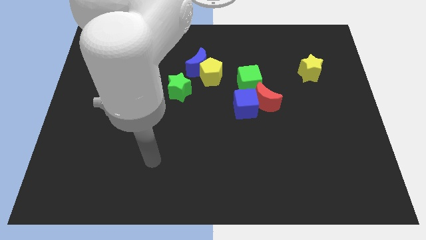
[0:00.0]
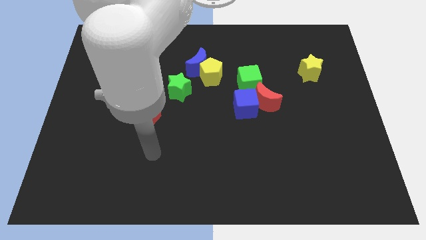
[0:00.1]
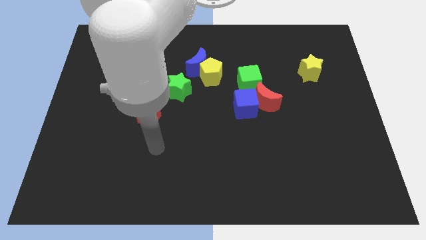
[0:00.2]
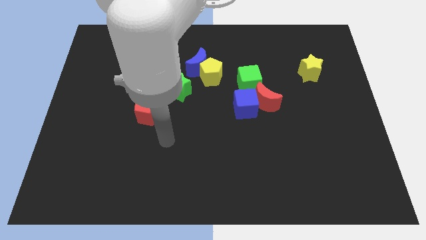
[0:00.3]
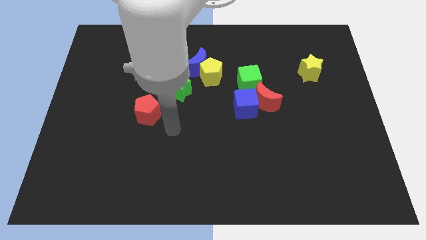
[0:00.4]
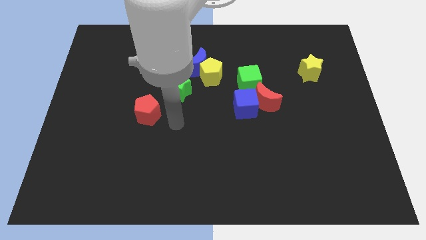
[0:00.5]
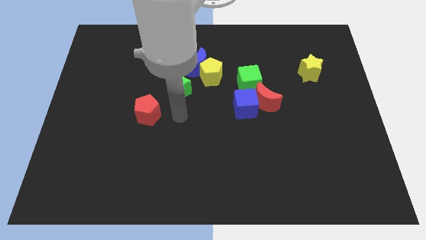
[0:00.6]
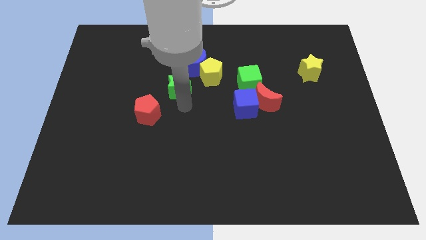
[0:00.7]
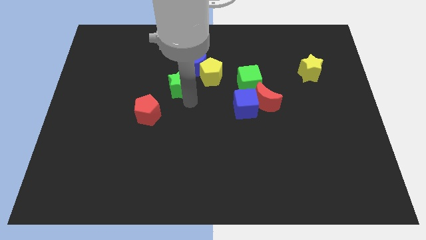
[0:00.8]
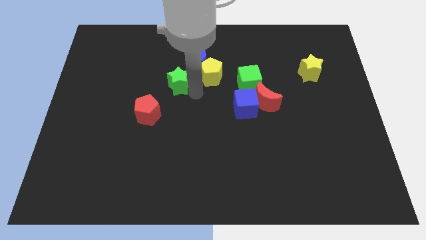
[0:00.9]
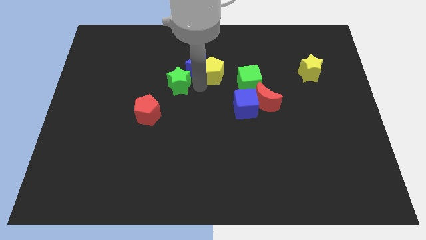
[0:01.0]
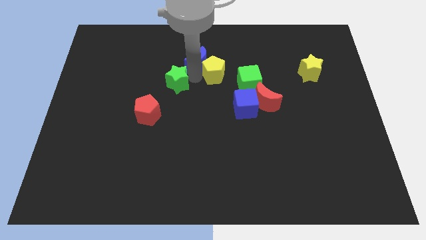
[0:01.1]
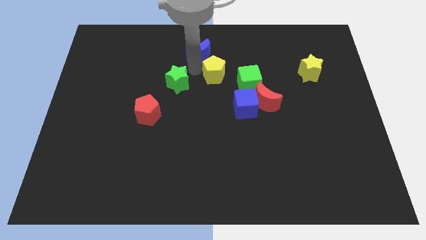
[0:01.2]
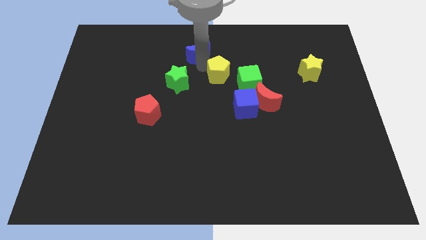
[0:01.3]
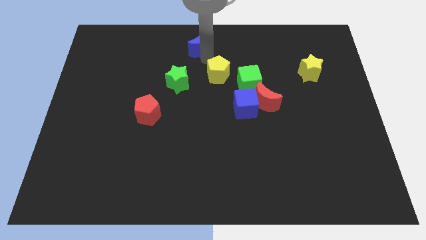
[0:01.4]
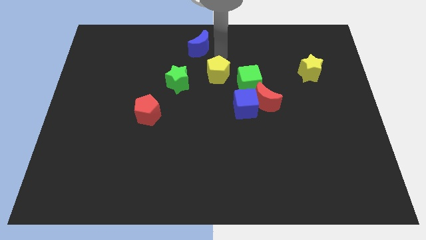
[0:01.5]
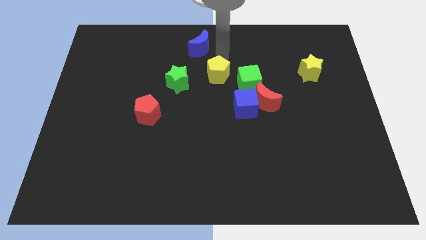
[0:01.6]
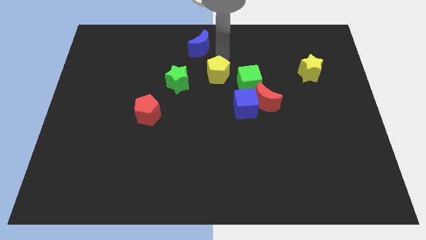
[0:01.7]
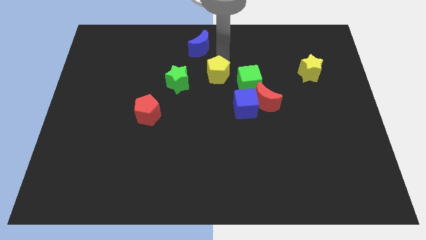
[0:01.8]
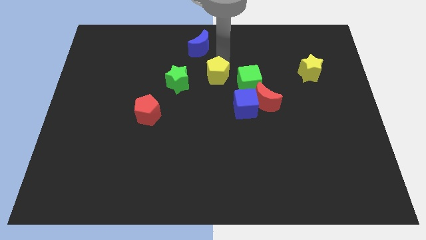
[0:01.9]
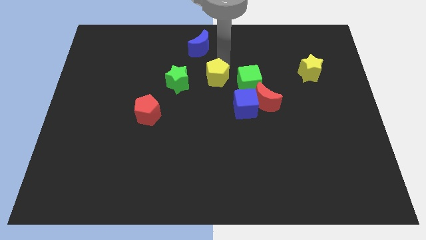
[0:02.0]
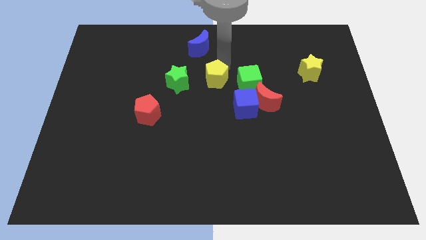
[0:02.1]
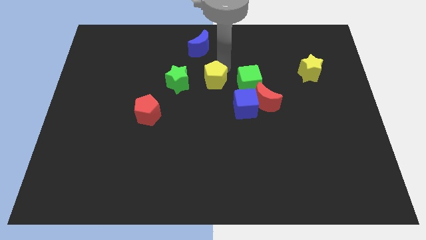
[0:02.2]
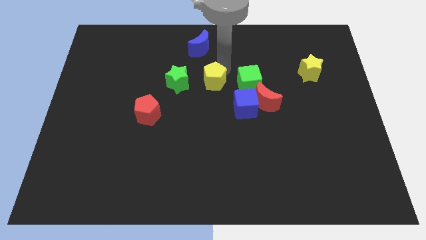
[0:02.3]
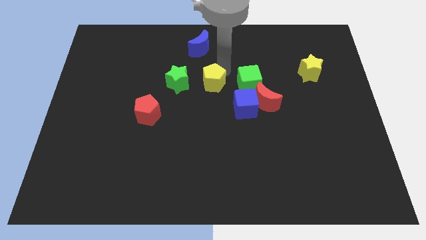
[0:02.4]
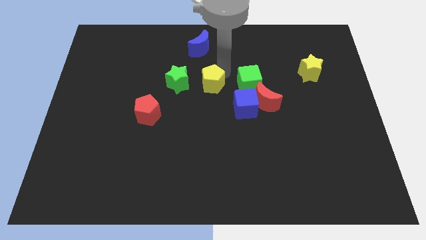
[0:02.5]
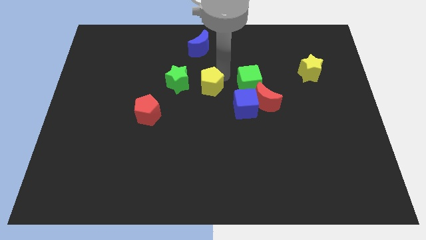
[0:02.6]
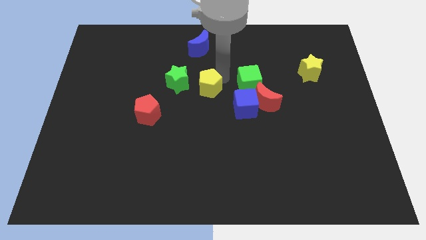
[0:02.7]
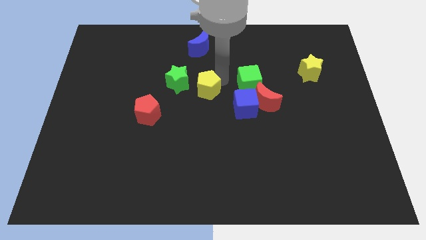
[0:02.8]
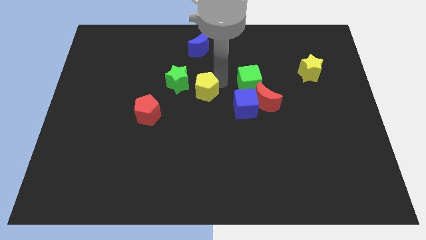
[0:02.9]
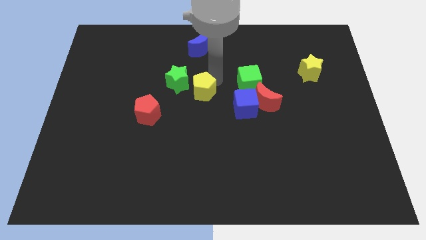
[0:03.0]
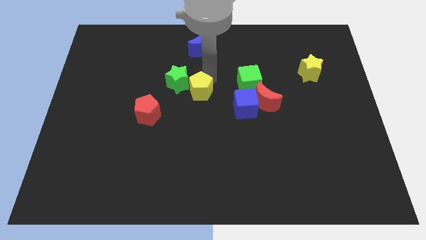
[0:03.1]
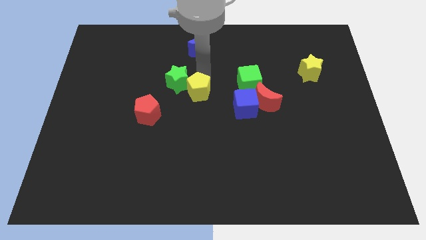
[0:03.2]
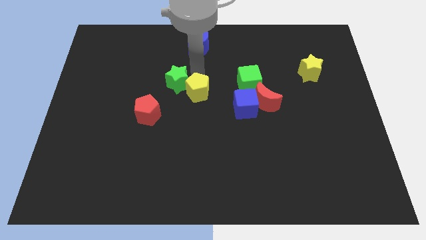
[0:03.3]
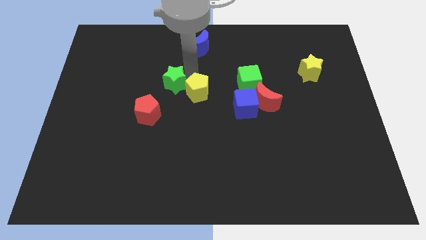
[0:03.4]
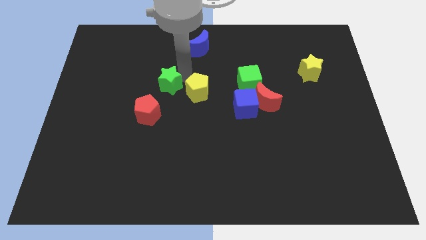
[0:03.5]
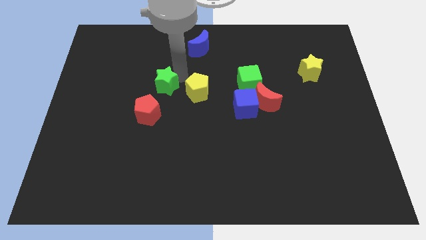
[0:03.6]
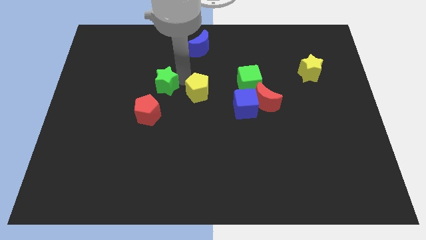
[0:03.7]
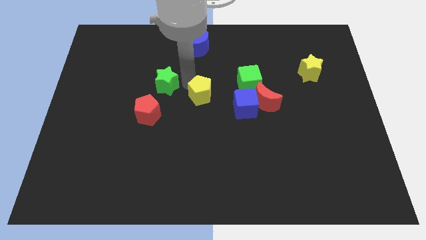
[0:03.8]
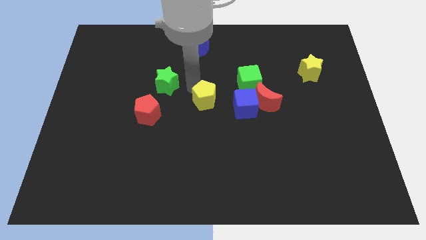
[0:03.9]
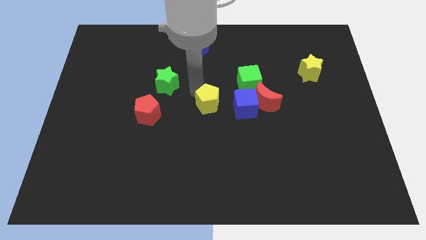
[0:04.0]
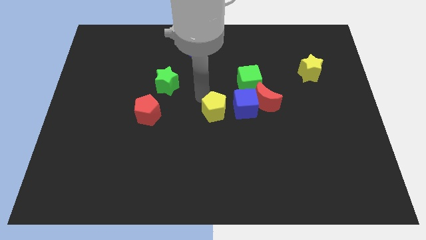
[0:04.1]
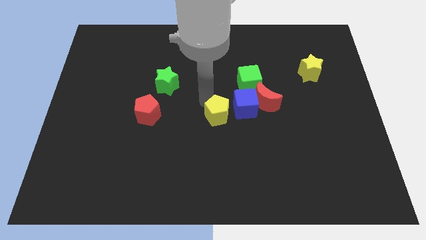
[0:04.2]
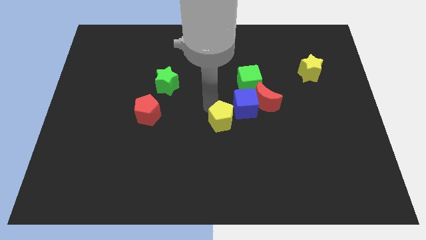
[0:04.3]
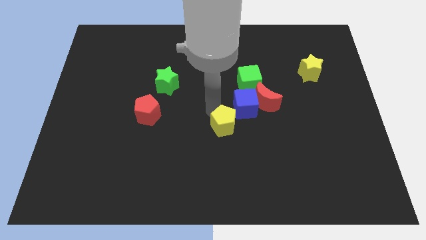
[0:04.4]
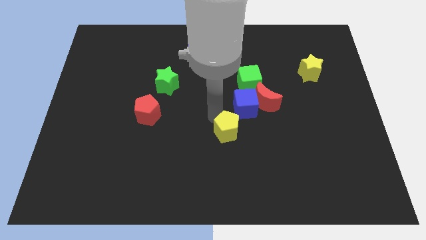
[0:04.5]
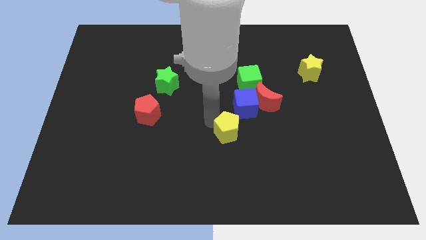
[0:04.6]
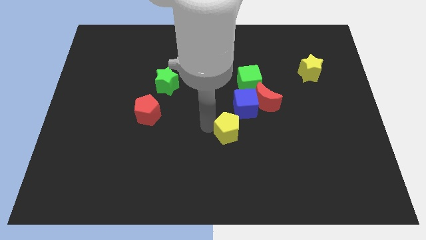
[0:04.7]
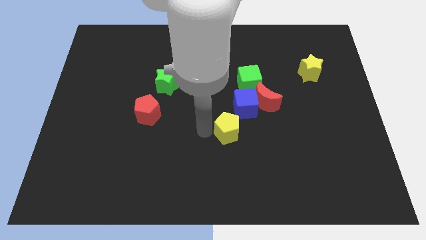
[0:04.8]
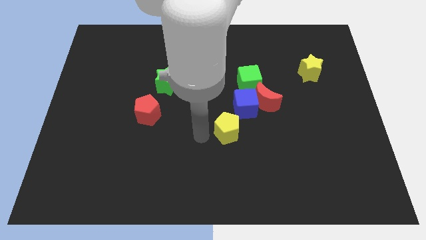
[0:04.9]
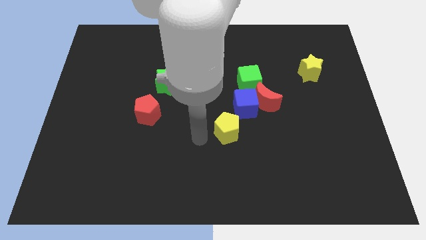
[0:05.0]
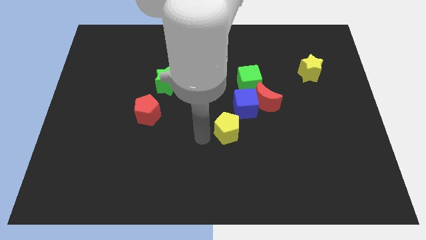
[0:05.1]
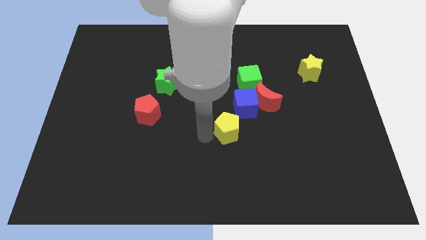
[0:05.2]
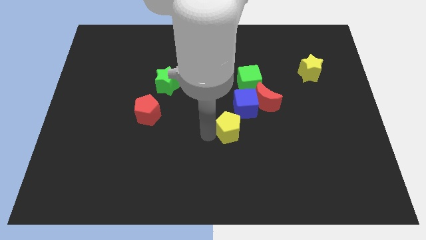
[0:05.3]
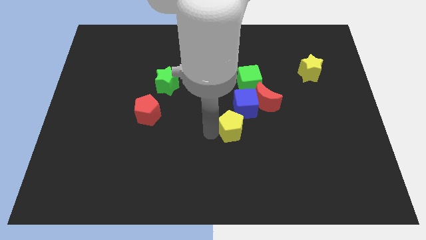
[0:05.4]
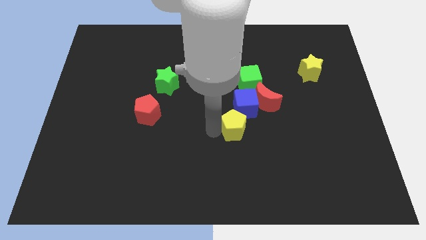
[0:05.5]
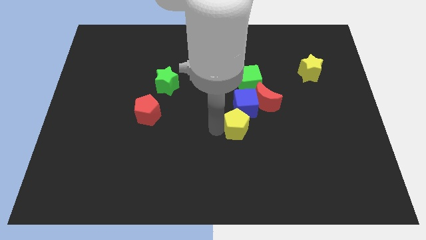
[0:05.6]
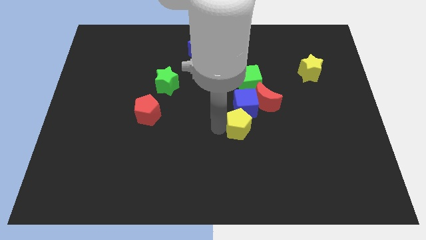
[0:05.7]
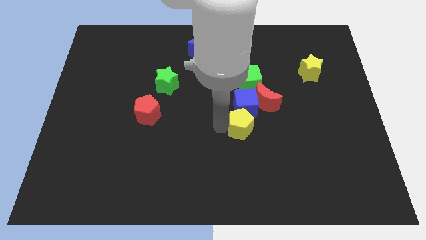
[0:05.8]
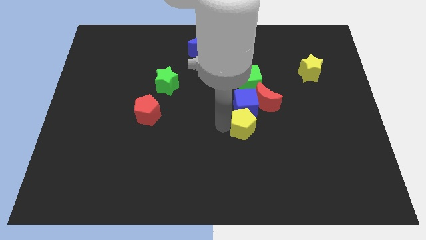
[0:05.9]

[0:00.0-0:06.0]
move the yellow pentagon to the bottom right of the blue cube

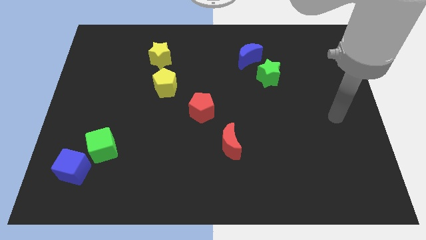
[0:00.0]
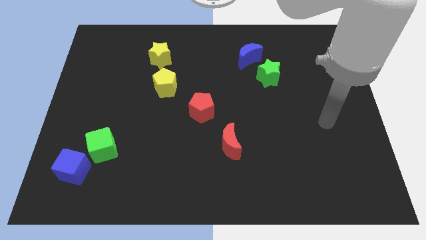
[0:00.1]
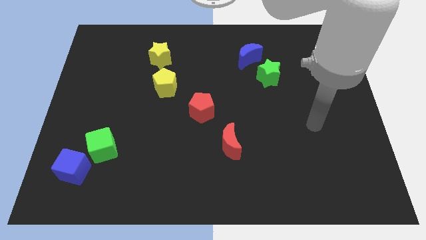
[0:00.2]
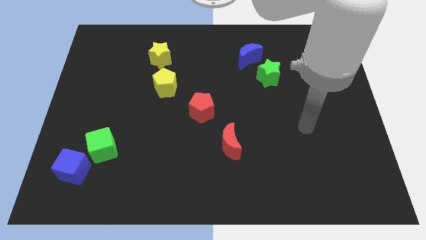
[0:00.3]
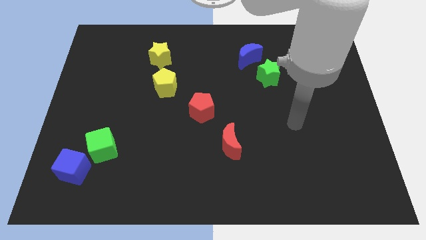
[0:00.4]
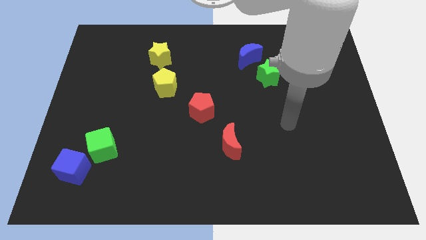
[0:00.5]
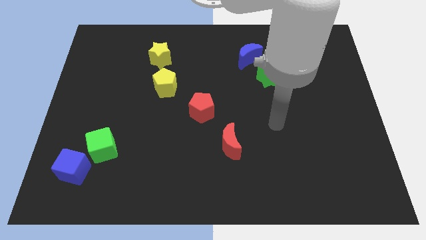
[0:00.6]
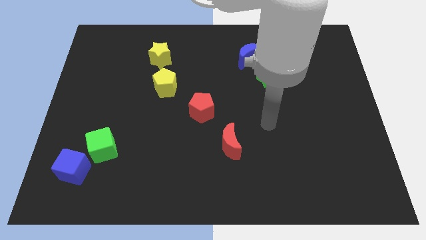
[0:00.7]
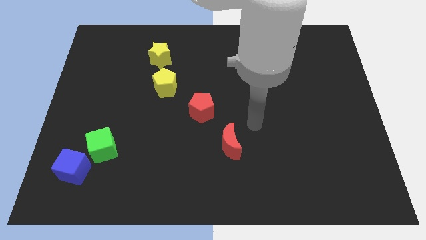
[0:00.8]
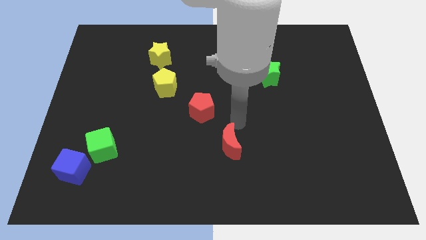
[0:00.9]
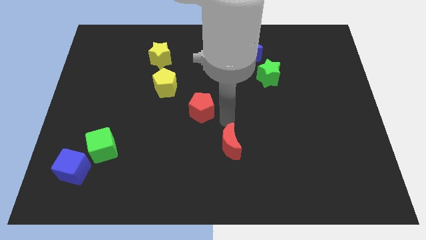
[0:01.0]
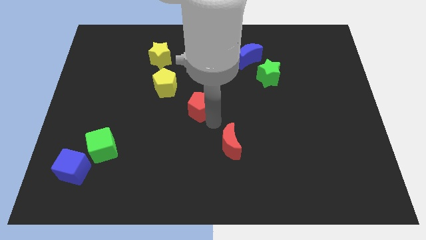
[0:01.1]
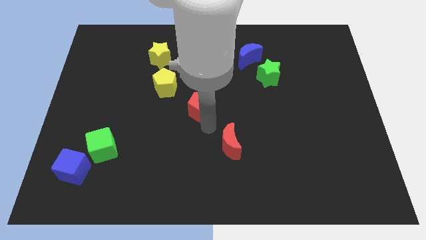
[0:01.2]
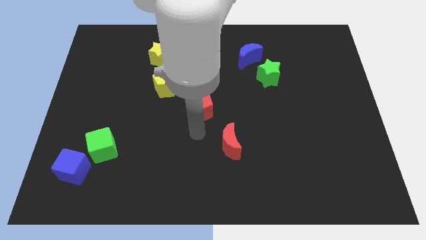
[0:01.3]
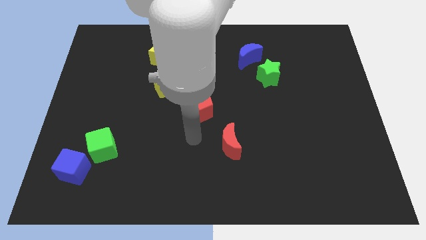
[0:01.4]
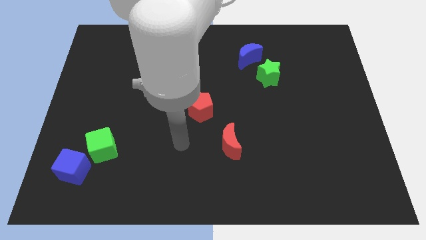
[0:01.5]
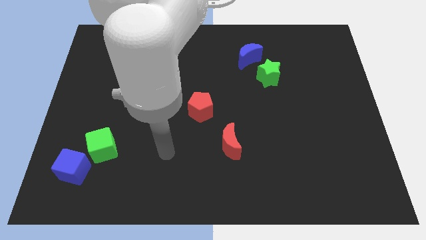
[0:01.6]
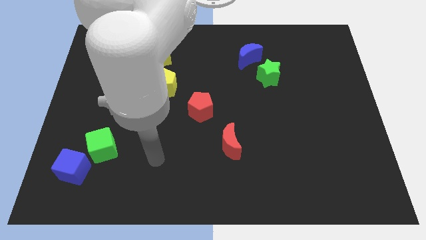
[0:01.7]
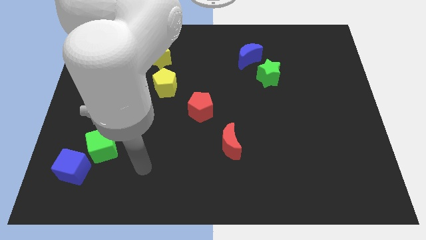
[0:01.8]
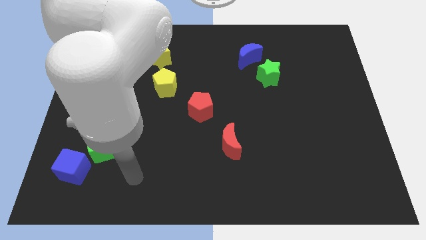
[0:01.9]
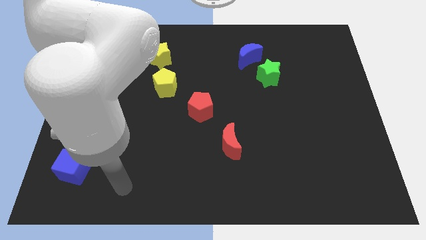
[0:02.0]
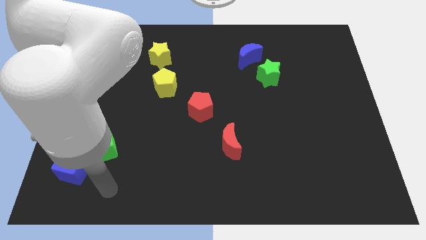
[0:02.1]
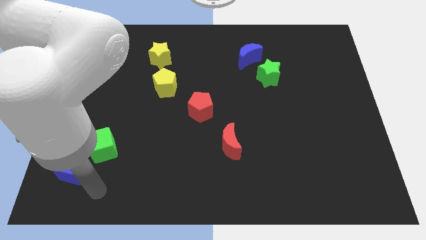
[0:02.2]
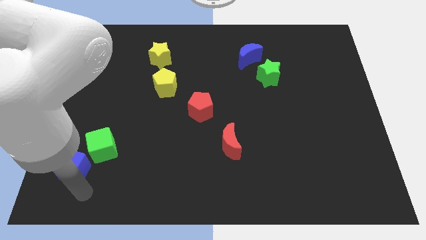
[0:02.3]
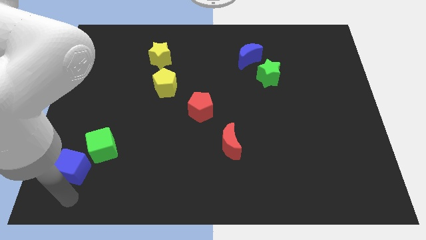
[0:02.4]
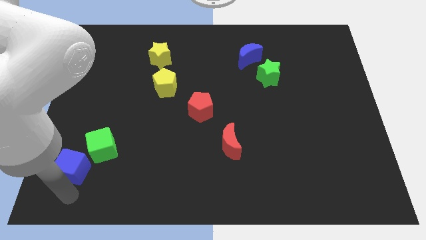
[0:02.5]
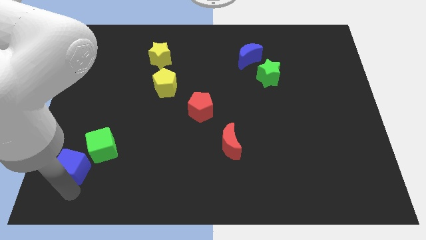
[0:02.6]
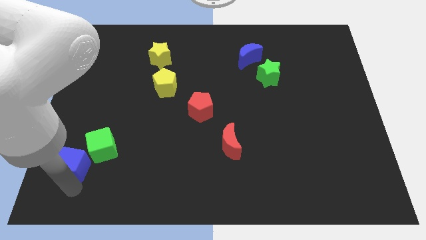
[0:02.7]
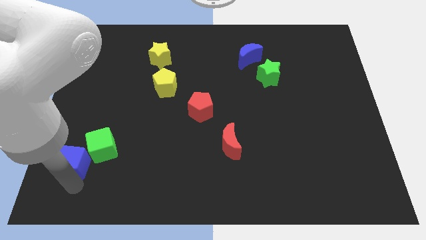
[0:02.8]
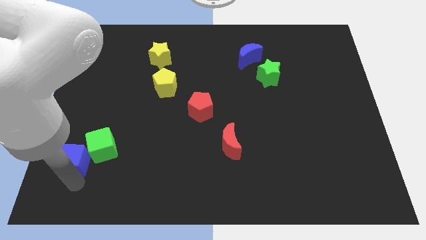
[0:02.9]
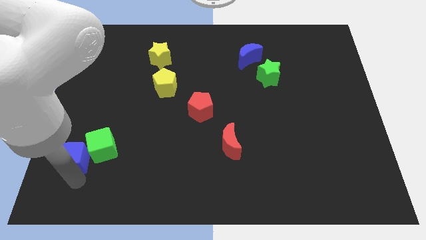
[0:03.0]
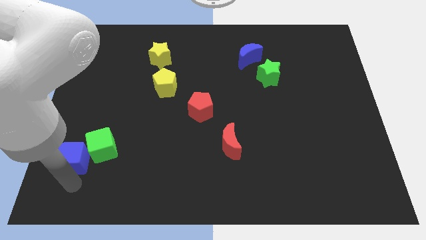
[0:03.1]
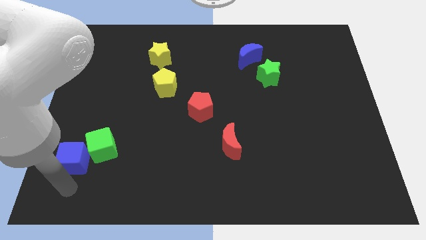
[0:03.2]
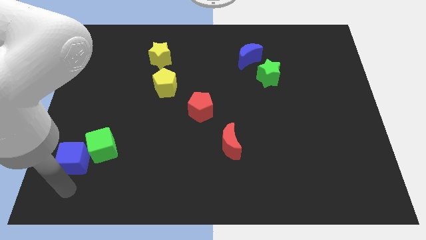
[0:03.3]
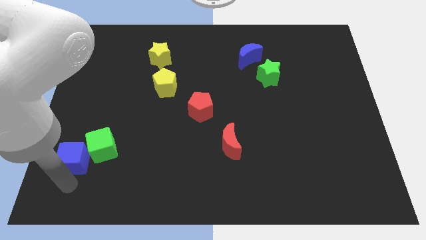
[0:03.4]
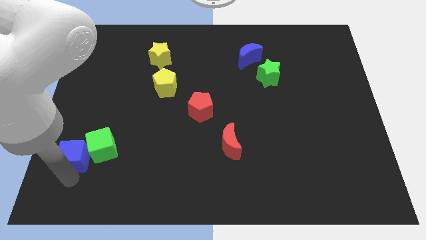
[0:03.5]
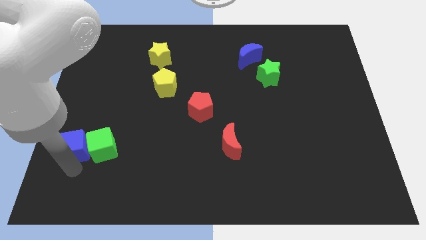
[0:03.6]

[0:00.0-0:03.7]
move the blue cube to the top left side of the green cube
